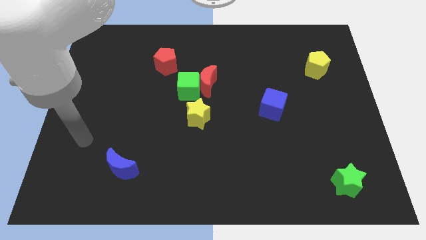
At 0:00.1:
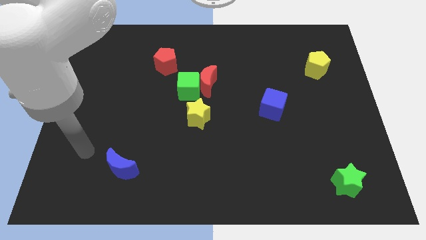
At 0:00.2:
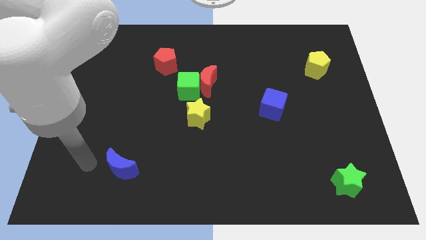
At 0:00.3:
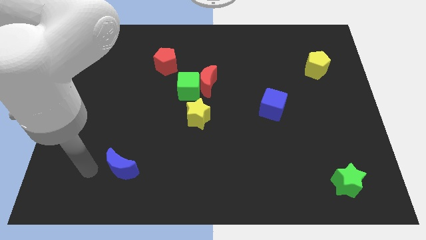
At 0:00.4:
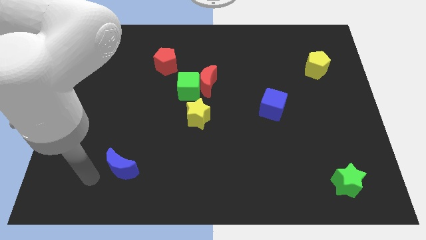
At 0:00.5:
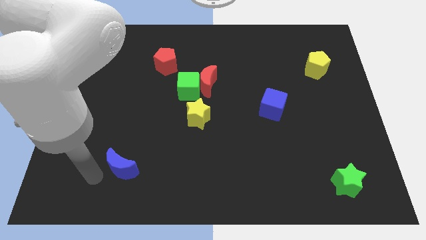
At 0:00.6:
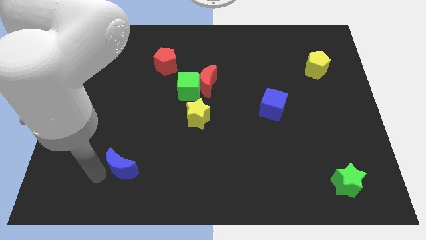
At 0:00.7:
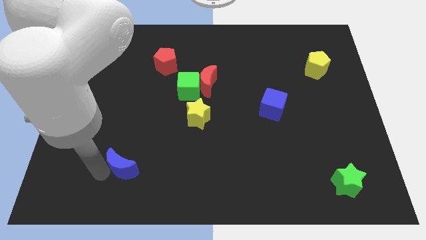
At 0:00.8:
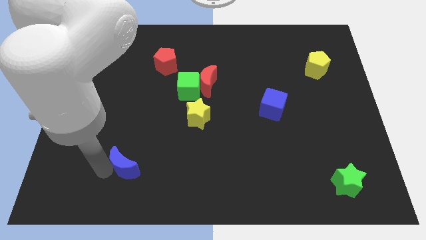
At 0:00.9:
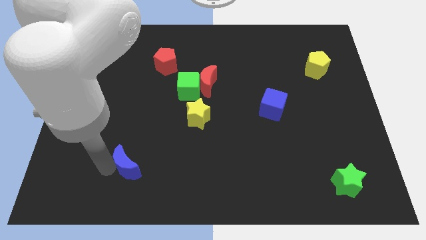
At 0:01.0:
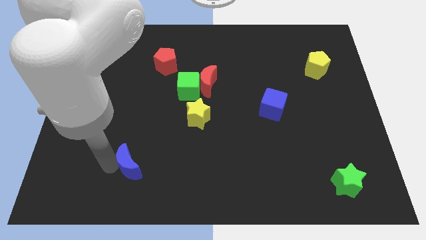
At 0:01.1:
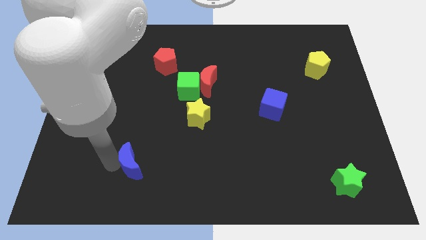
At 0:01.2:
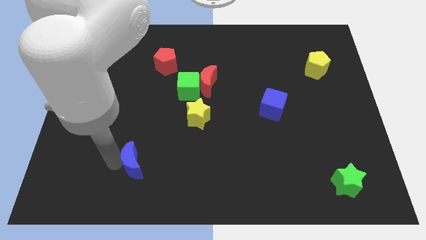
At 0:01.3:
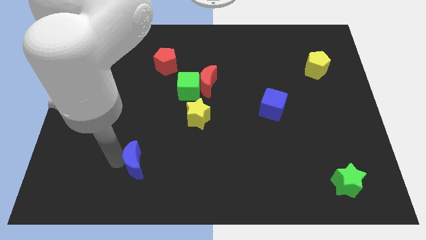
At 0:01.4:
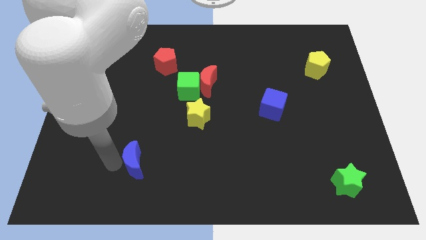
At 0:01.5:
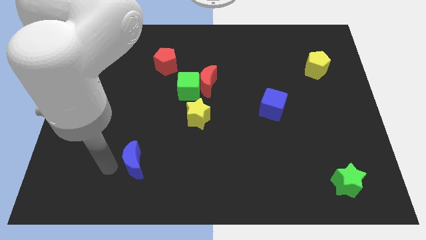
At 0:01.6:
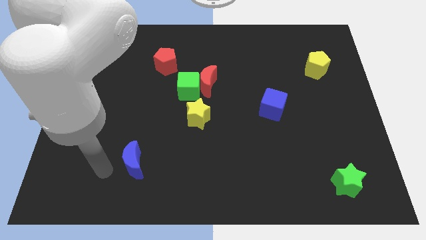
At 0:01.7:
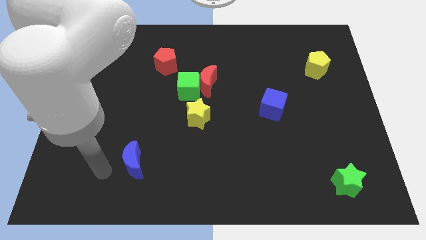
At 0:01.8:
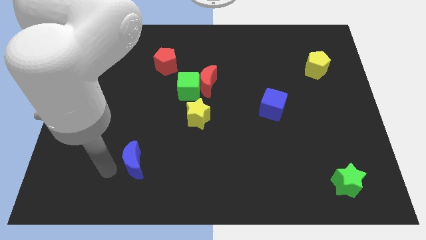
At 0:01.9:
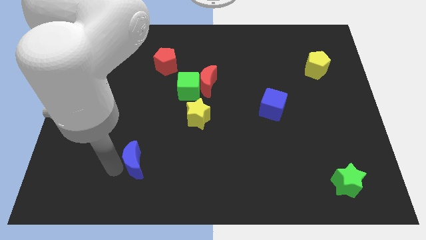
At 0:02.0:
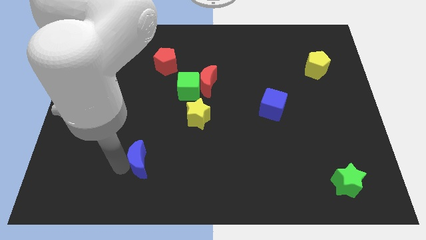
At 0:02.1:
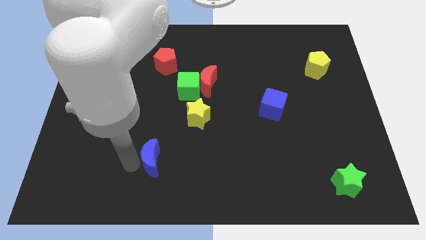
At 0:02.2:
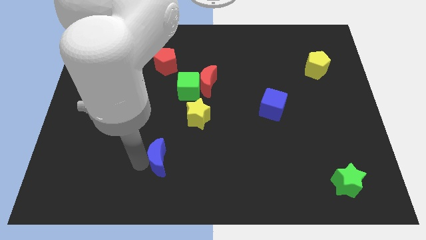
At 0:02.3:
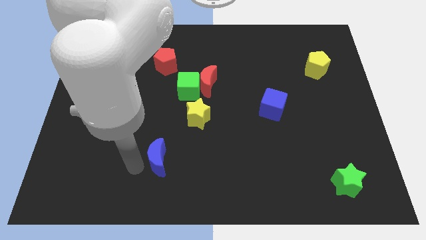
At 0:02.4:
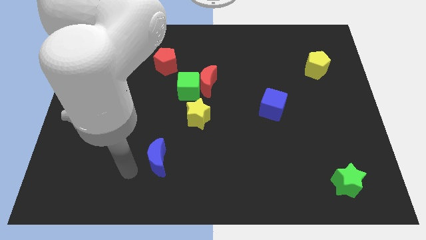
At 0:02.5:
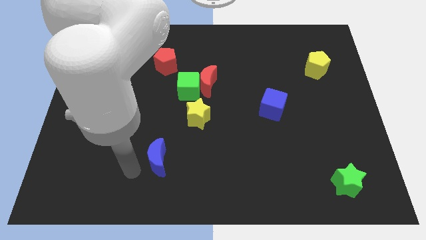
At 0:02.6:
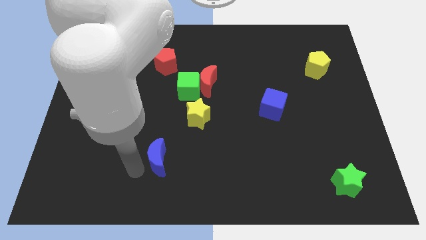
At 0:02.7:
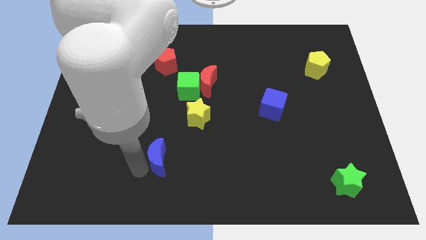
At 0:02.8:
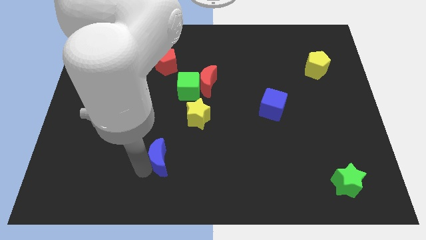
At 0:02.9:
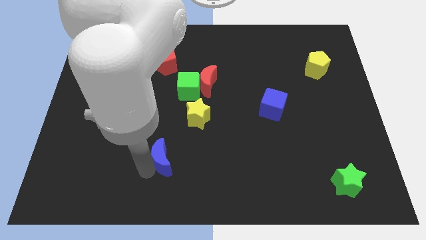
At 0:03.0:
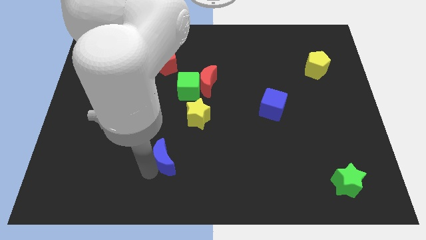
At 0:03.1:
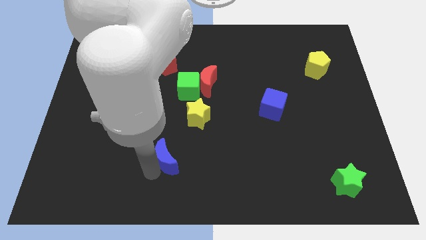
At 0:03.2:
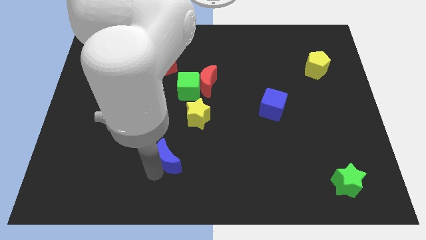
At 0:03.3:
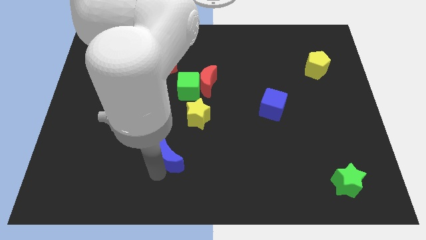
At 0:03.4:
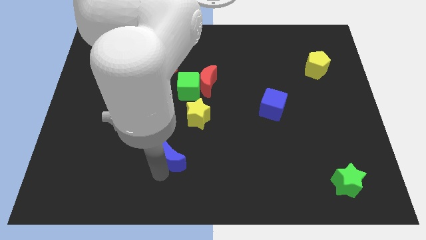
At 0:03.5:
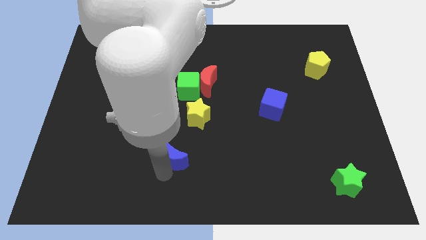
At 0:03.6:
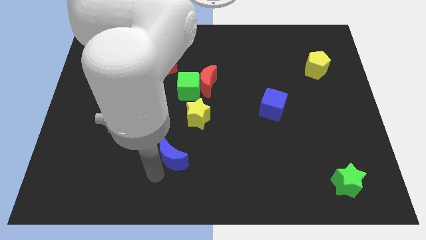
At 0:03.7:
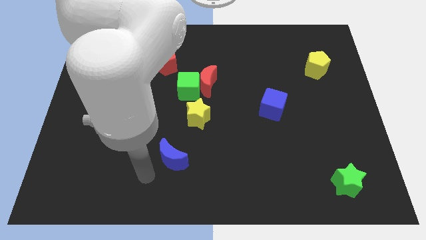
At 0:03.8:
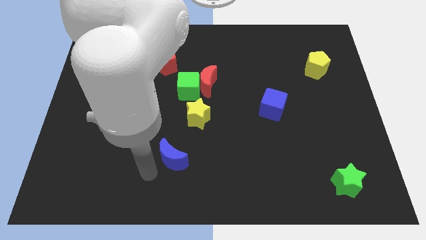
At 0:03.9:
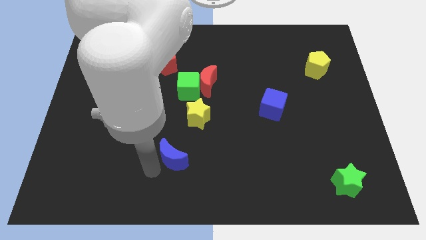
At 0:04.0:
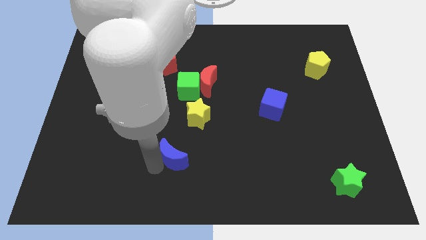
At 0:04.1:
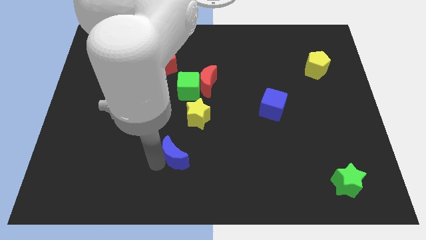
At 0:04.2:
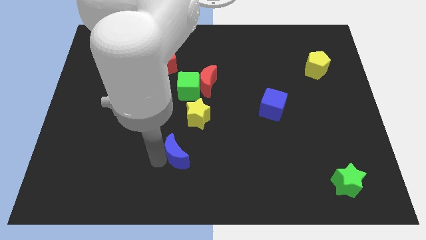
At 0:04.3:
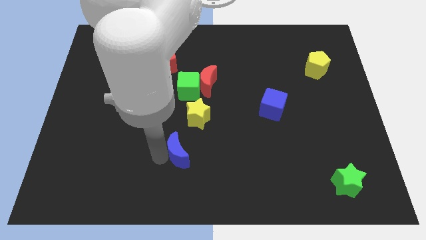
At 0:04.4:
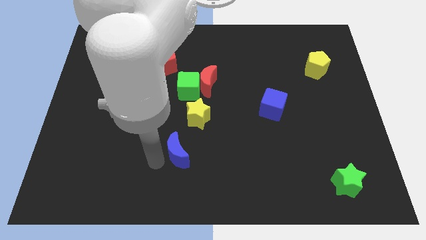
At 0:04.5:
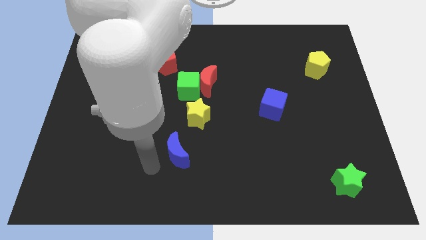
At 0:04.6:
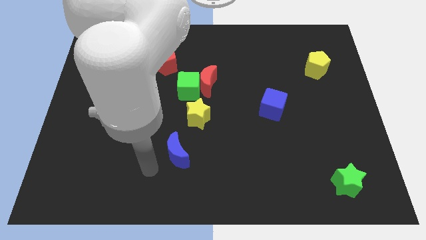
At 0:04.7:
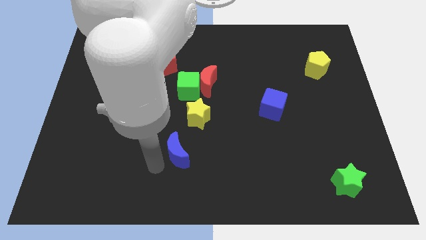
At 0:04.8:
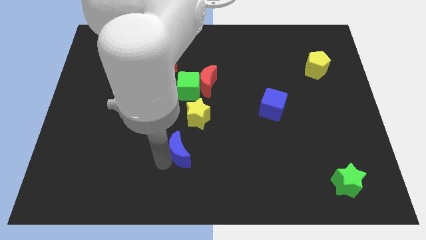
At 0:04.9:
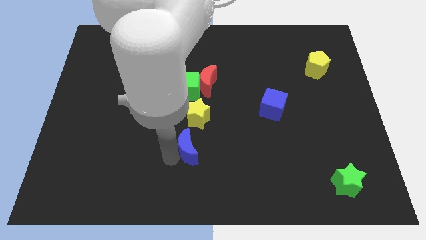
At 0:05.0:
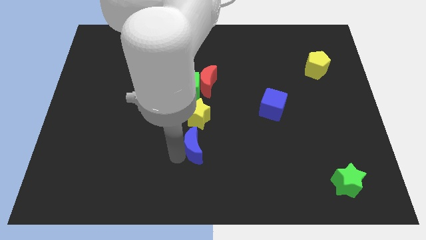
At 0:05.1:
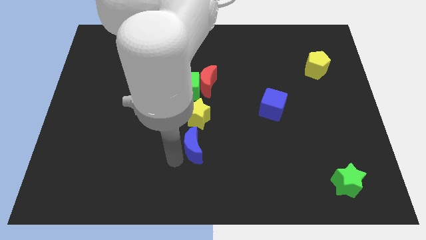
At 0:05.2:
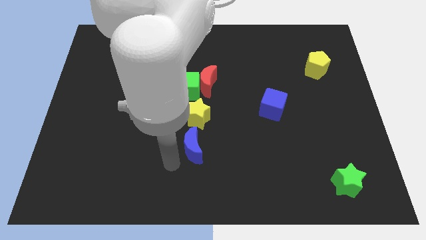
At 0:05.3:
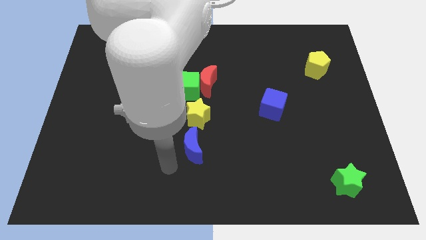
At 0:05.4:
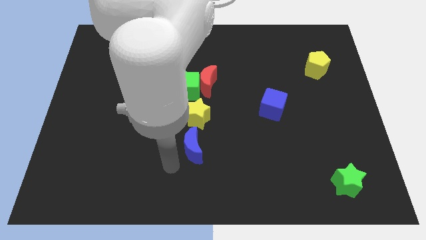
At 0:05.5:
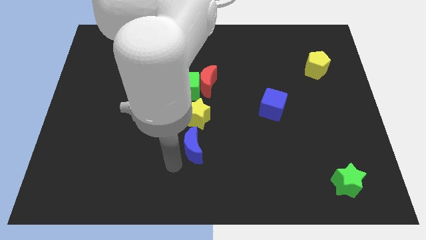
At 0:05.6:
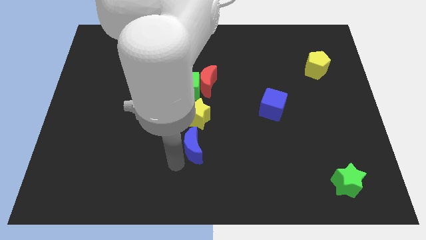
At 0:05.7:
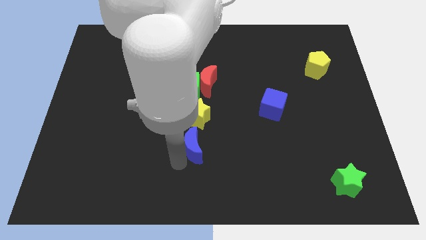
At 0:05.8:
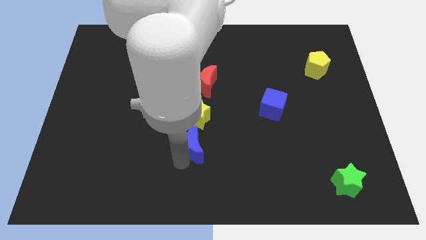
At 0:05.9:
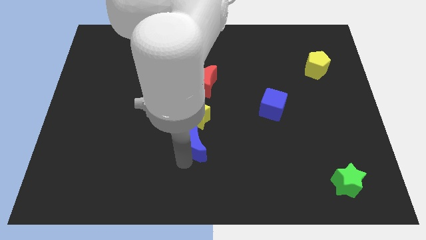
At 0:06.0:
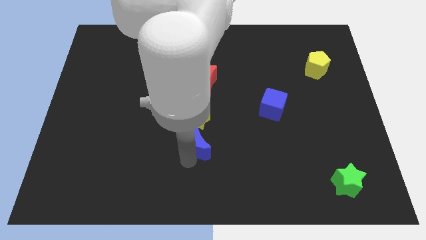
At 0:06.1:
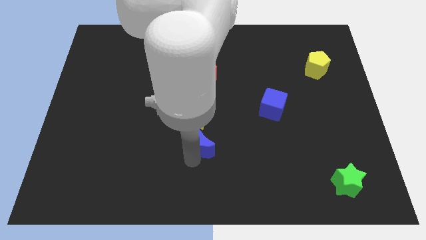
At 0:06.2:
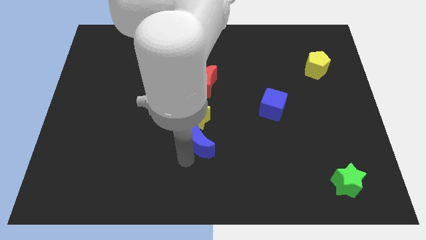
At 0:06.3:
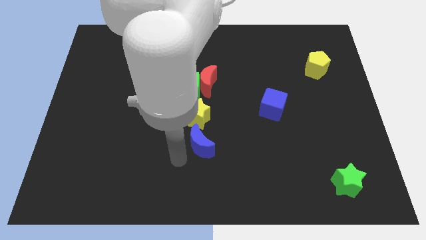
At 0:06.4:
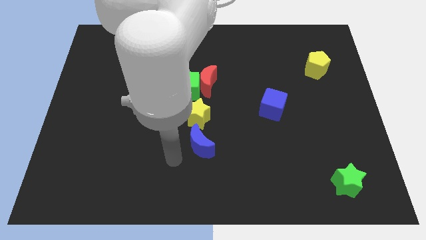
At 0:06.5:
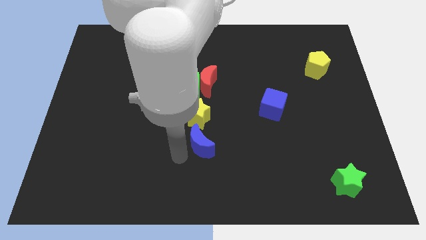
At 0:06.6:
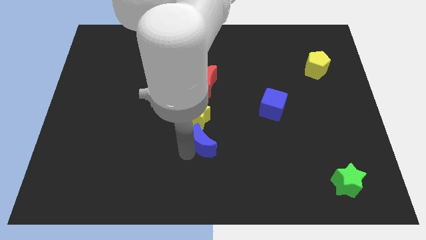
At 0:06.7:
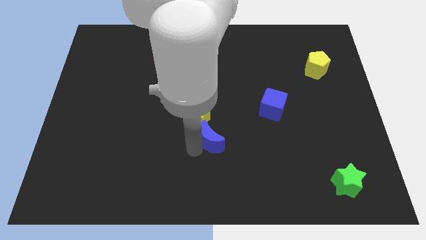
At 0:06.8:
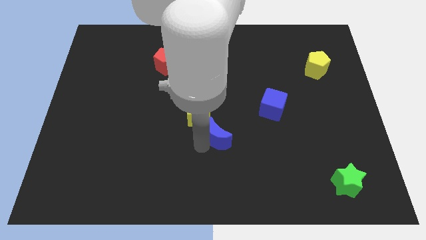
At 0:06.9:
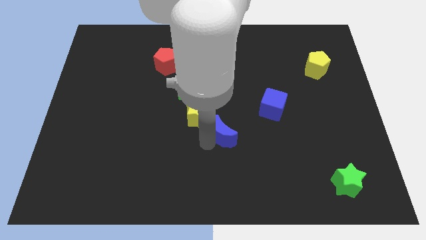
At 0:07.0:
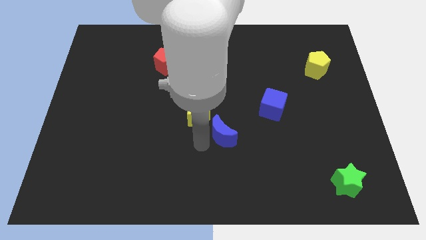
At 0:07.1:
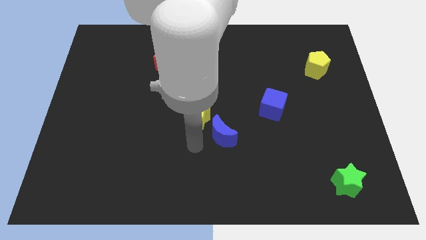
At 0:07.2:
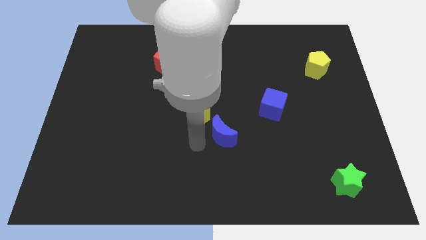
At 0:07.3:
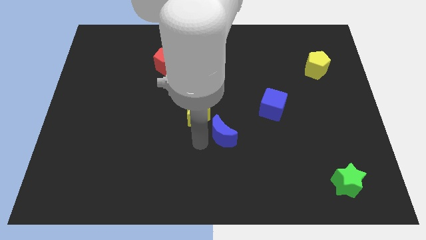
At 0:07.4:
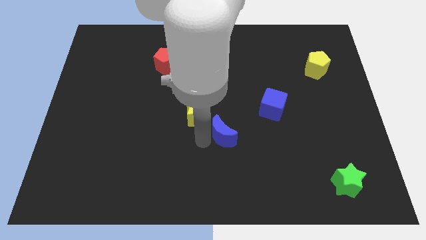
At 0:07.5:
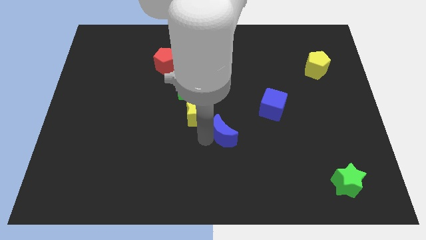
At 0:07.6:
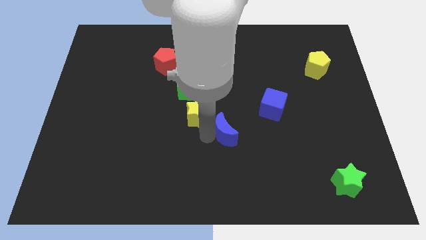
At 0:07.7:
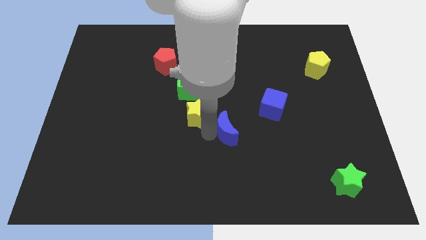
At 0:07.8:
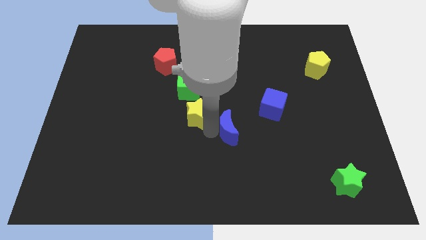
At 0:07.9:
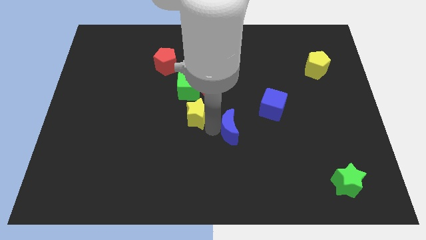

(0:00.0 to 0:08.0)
slide the blue moon to the bottom left side of the blue cube

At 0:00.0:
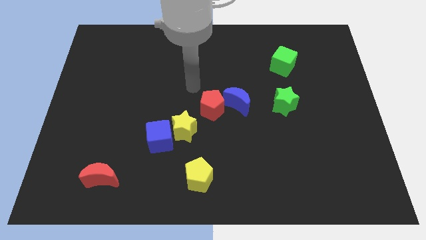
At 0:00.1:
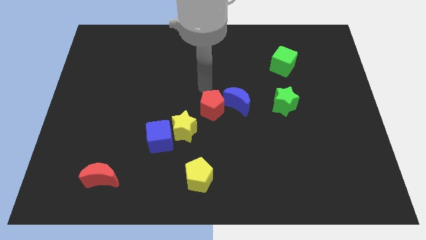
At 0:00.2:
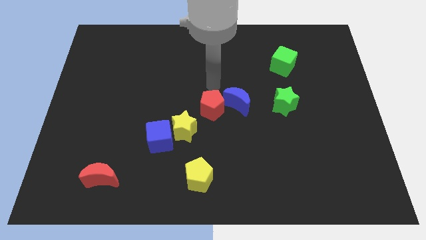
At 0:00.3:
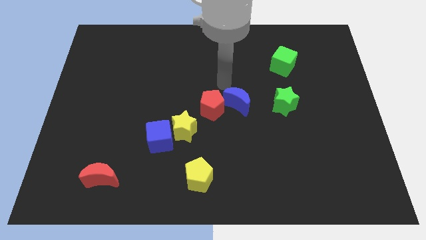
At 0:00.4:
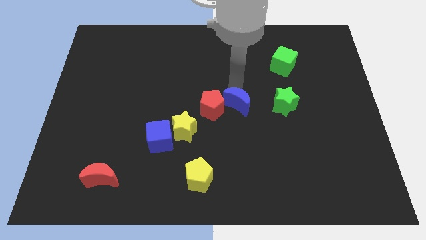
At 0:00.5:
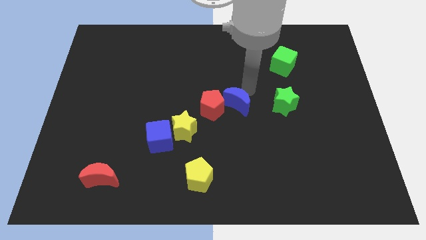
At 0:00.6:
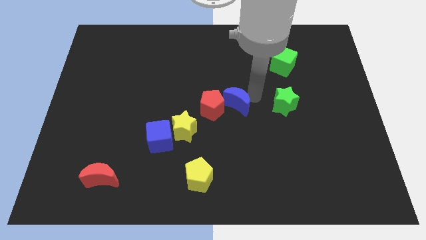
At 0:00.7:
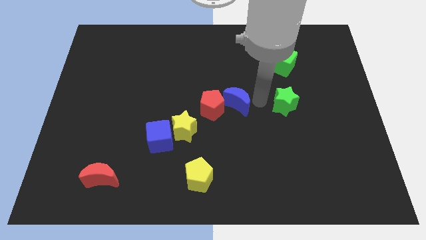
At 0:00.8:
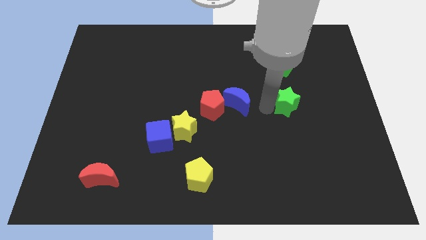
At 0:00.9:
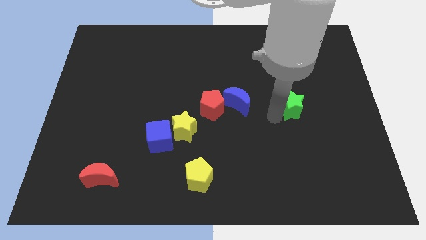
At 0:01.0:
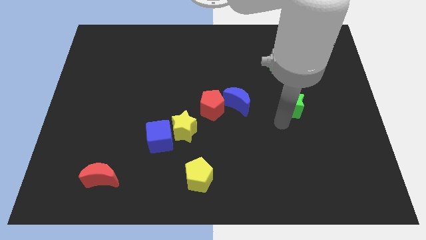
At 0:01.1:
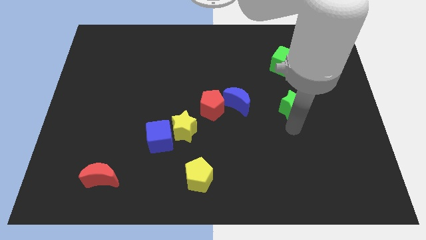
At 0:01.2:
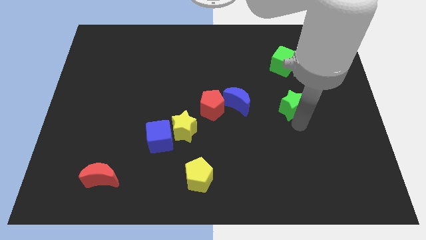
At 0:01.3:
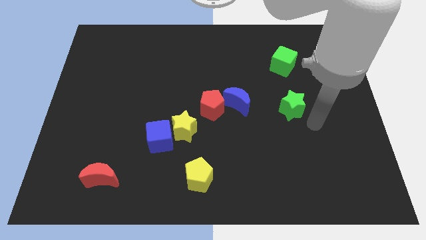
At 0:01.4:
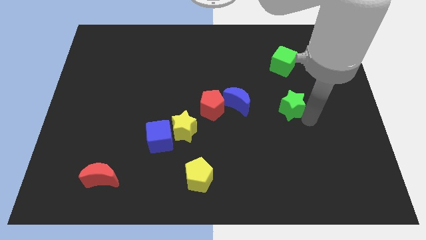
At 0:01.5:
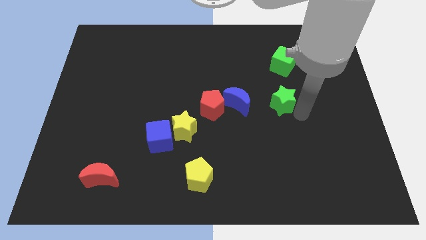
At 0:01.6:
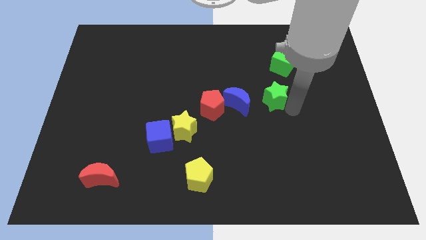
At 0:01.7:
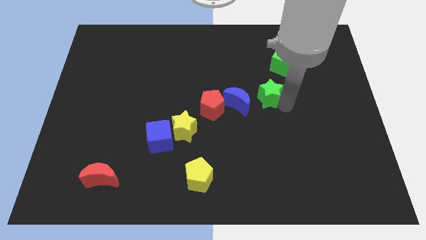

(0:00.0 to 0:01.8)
slide the green star to the top right side of the blue moon
